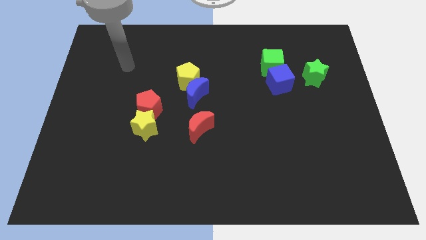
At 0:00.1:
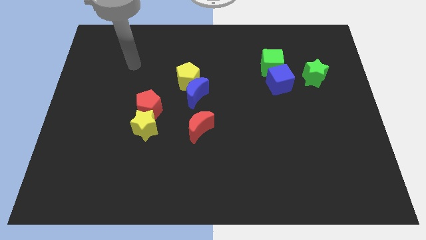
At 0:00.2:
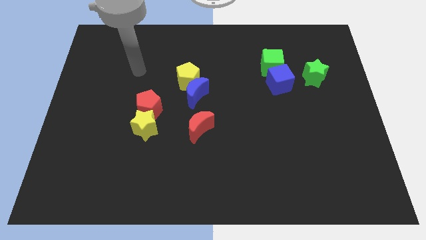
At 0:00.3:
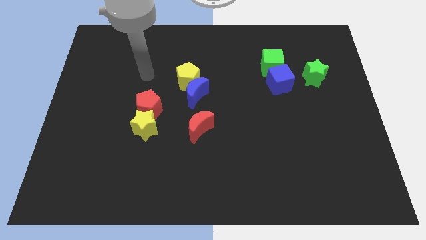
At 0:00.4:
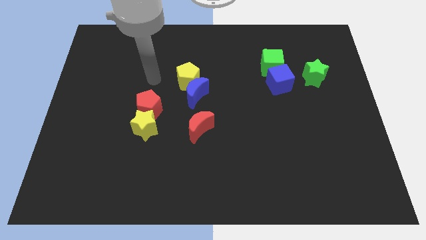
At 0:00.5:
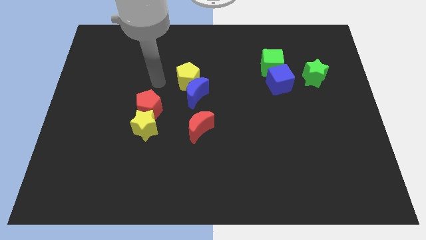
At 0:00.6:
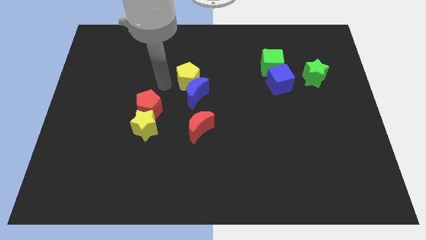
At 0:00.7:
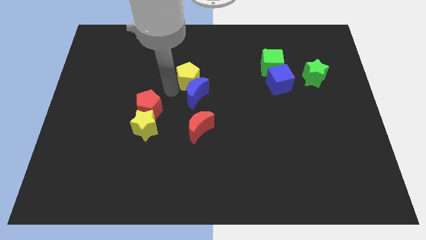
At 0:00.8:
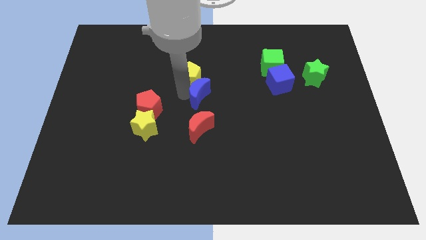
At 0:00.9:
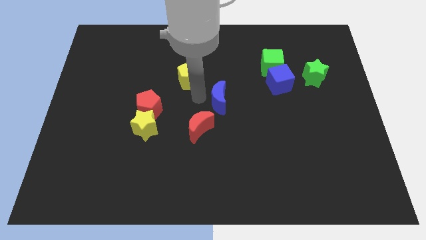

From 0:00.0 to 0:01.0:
move the yellow pentagon away from the blue moon

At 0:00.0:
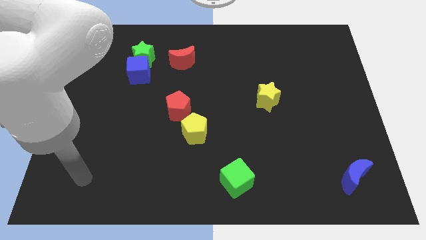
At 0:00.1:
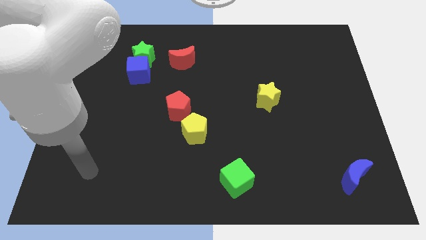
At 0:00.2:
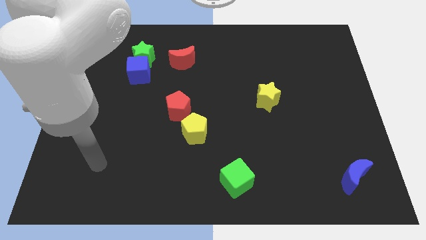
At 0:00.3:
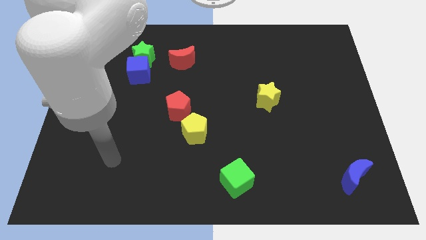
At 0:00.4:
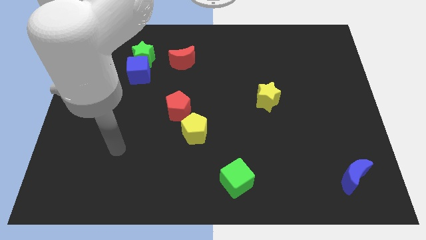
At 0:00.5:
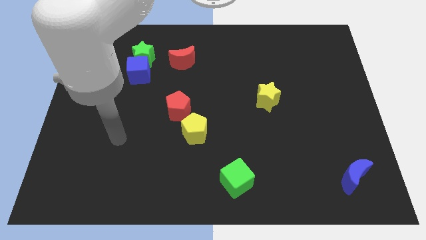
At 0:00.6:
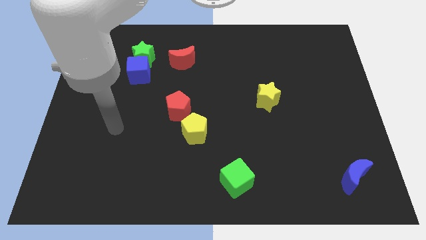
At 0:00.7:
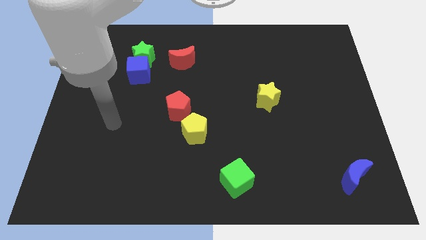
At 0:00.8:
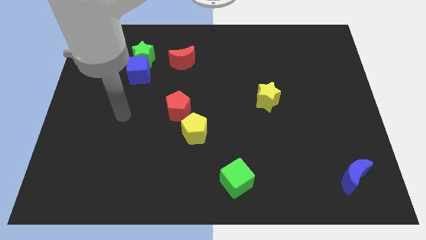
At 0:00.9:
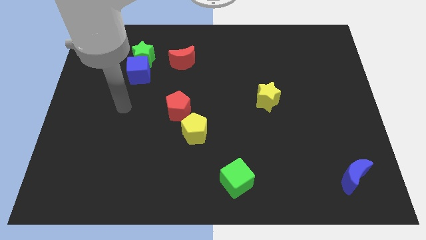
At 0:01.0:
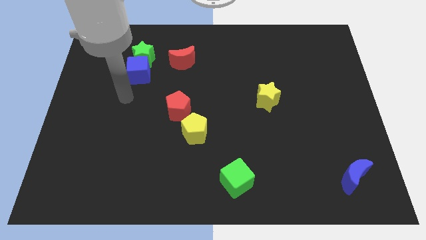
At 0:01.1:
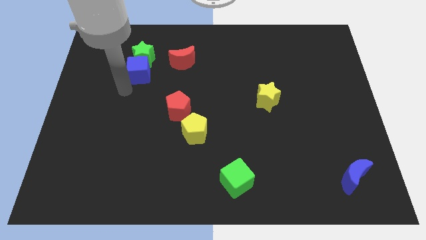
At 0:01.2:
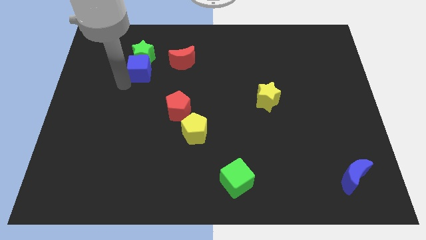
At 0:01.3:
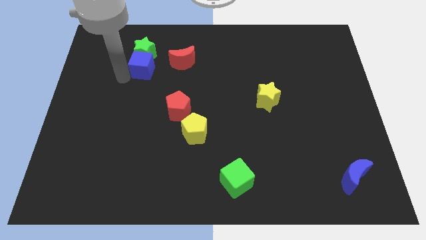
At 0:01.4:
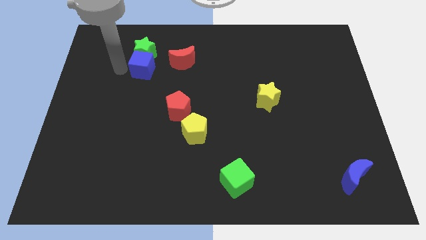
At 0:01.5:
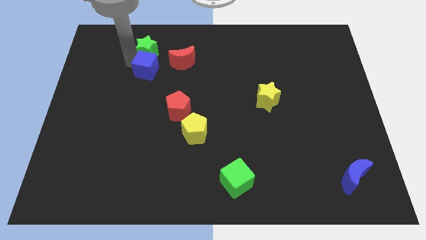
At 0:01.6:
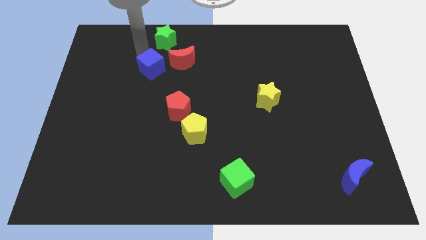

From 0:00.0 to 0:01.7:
move the blue cube away from the green star

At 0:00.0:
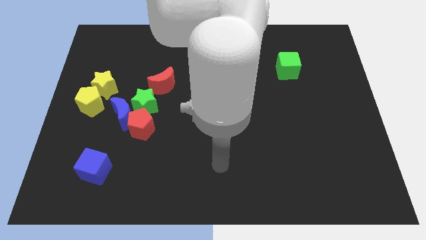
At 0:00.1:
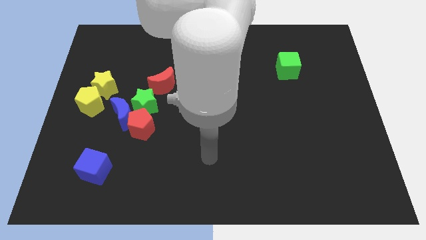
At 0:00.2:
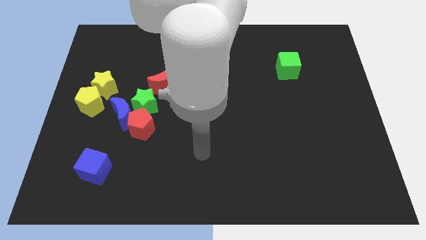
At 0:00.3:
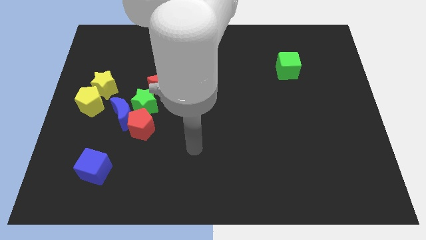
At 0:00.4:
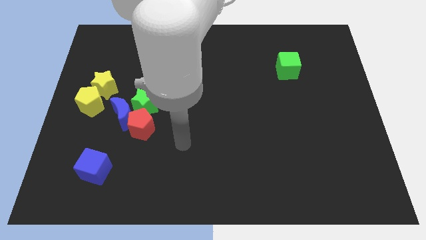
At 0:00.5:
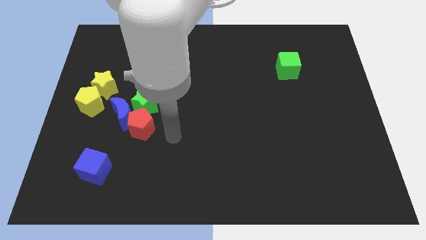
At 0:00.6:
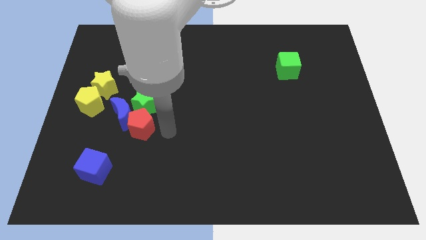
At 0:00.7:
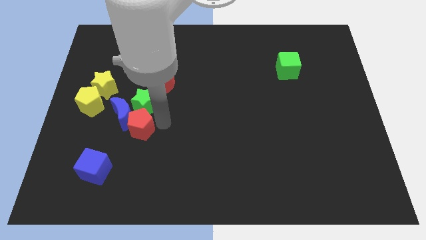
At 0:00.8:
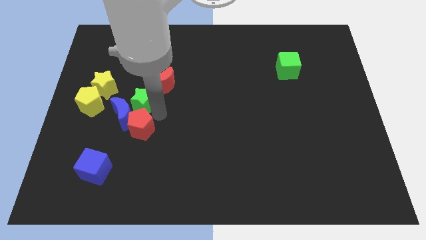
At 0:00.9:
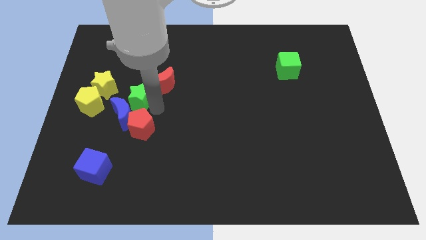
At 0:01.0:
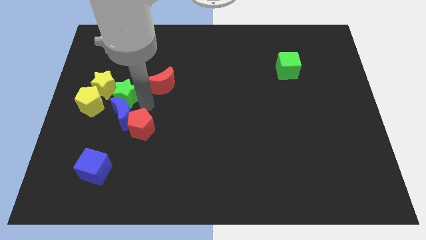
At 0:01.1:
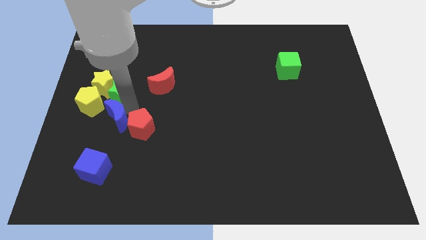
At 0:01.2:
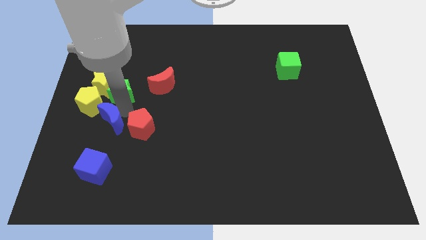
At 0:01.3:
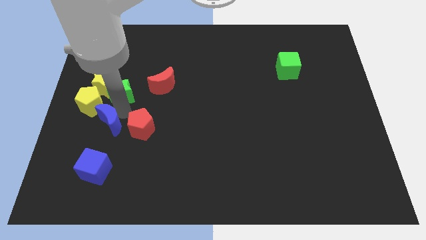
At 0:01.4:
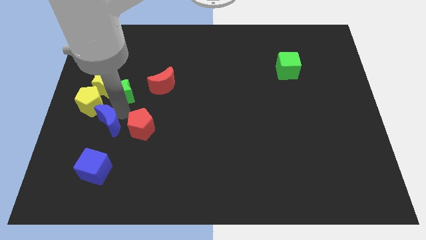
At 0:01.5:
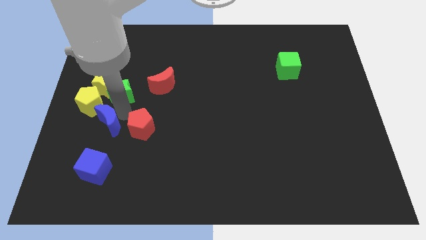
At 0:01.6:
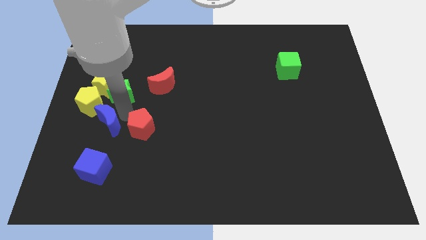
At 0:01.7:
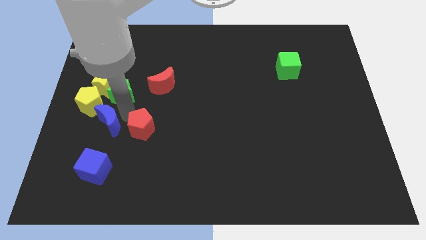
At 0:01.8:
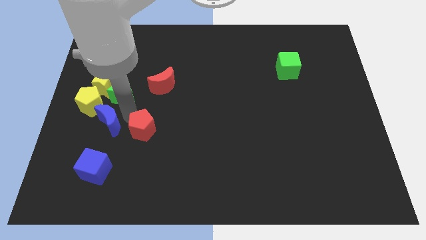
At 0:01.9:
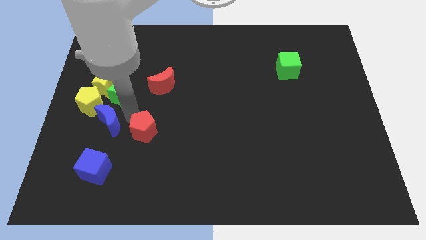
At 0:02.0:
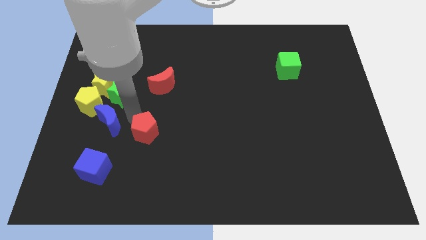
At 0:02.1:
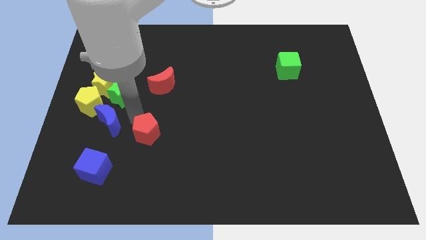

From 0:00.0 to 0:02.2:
separate the red pentagon from the blue moon and green star

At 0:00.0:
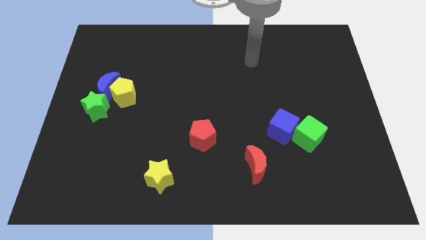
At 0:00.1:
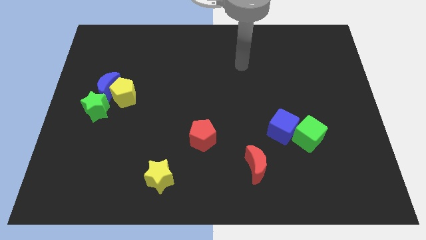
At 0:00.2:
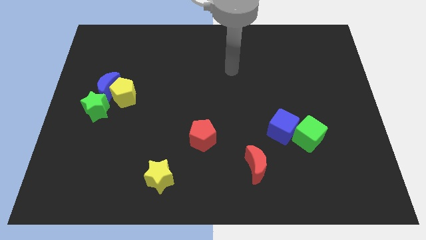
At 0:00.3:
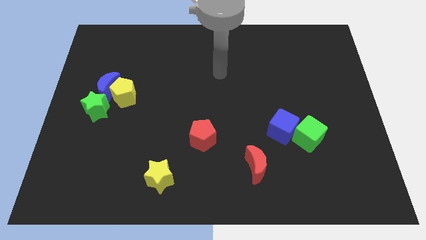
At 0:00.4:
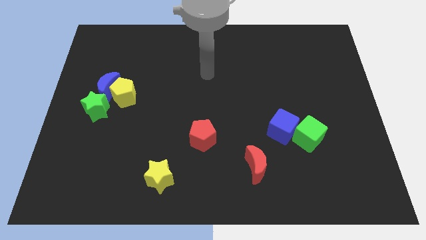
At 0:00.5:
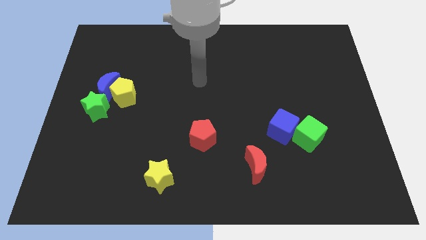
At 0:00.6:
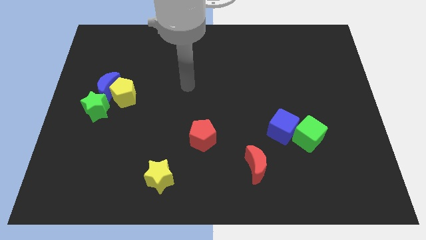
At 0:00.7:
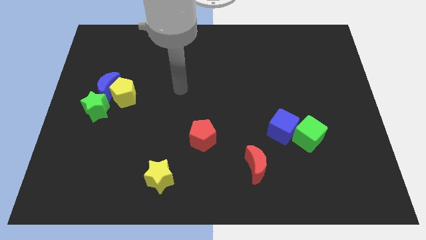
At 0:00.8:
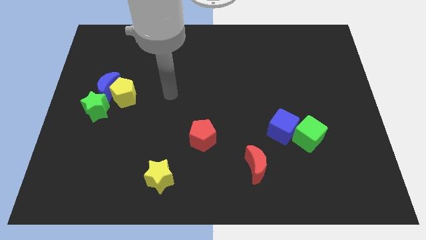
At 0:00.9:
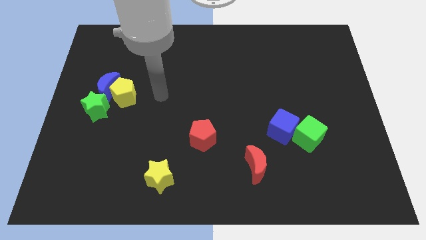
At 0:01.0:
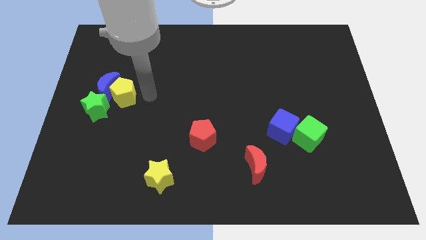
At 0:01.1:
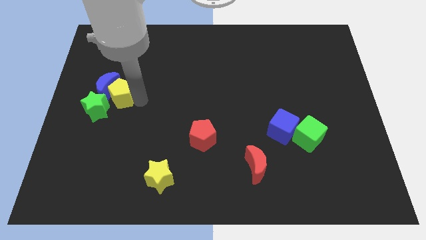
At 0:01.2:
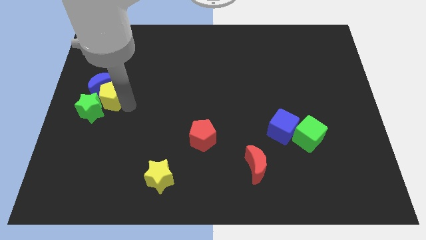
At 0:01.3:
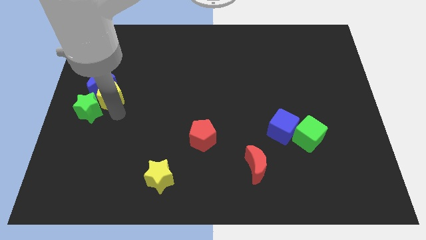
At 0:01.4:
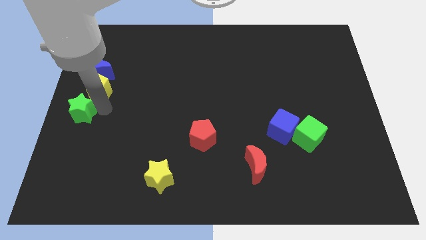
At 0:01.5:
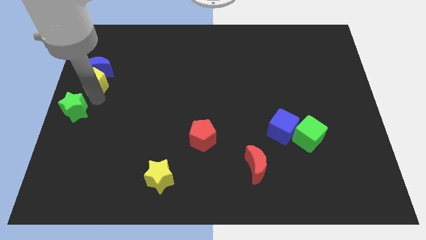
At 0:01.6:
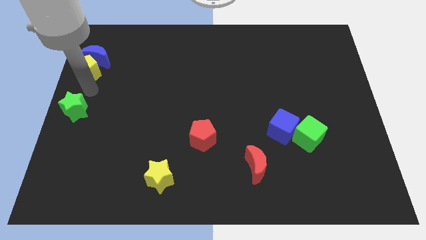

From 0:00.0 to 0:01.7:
separate the blue moon from the yellow pentagon and green star

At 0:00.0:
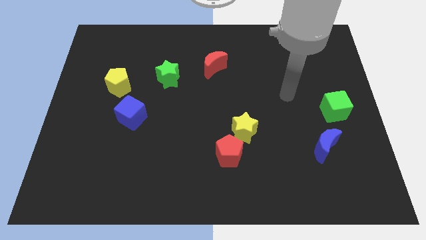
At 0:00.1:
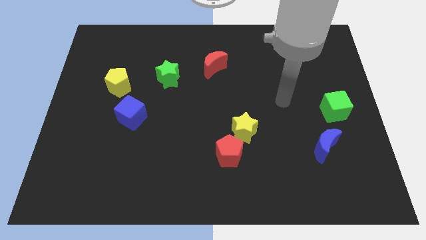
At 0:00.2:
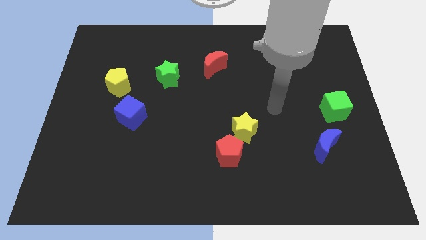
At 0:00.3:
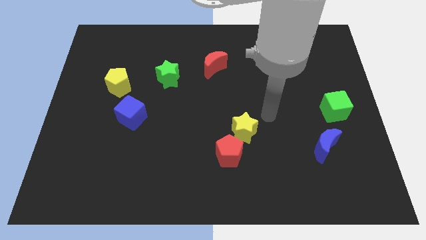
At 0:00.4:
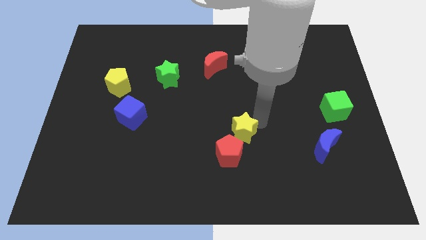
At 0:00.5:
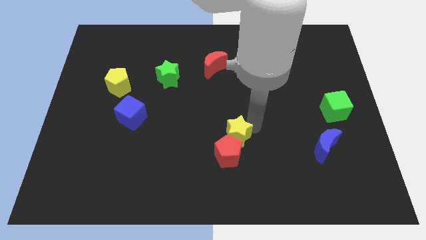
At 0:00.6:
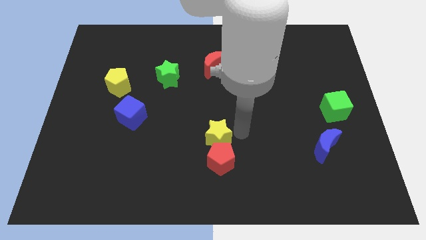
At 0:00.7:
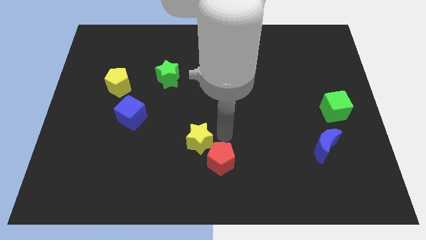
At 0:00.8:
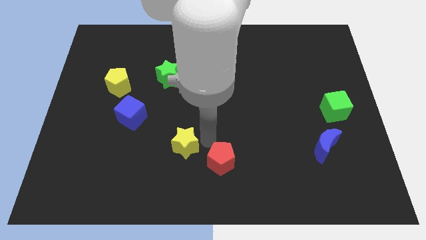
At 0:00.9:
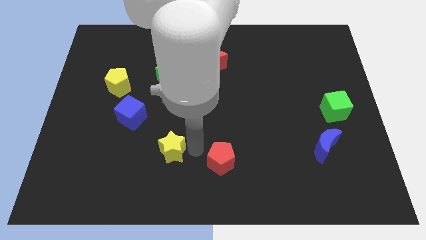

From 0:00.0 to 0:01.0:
separate the red pentagon from the yellow star

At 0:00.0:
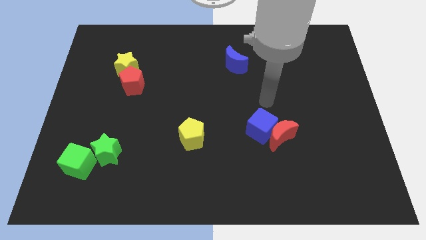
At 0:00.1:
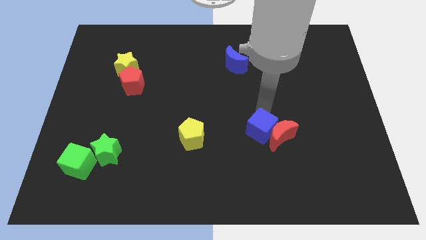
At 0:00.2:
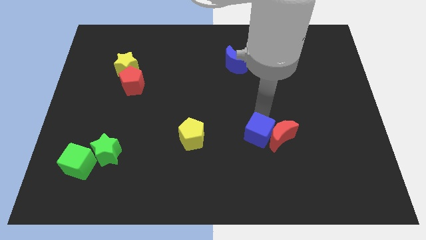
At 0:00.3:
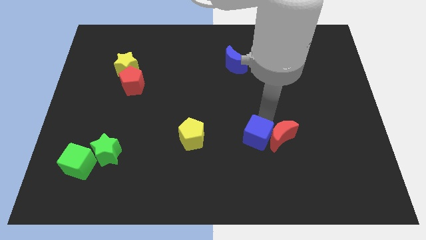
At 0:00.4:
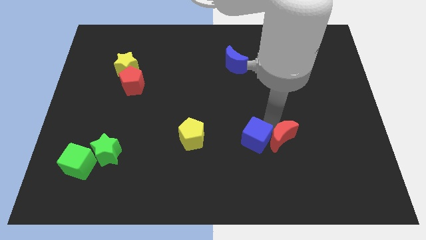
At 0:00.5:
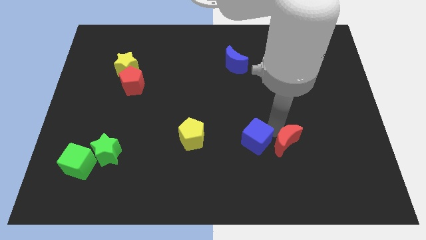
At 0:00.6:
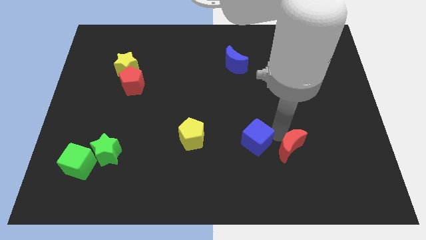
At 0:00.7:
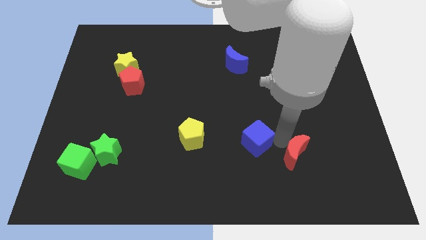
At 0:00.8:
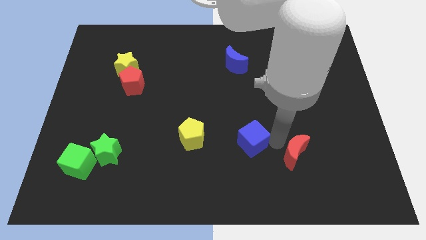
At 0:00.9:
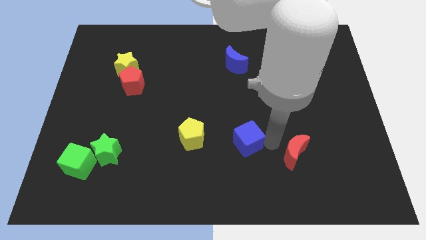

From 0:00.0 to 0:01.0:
move the red moon away from the blue cube

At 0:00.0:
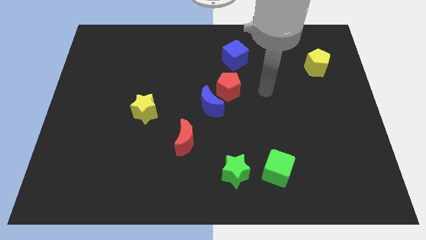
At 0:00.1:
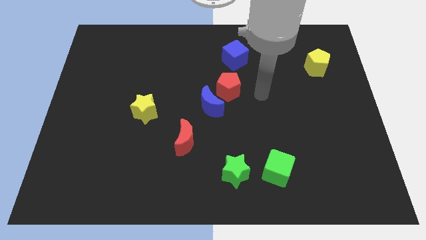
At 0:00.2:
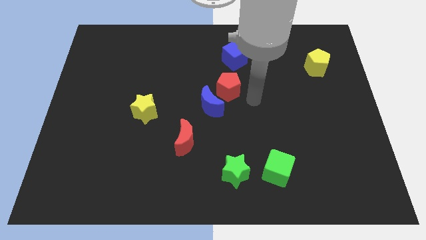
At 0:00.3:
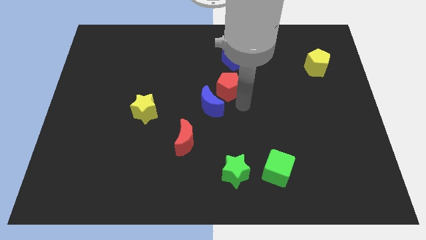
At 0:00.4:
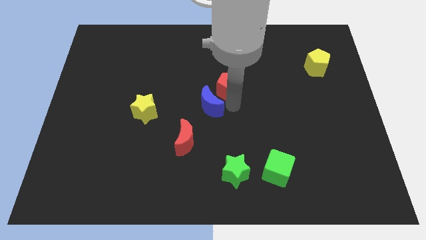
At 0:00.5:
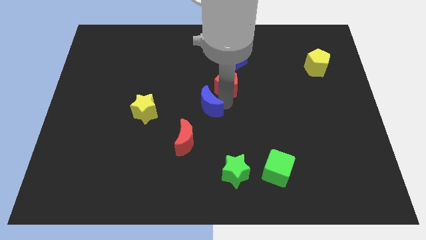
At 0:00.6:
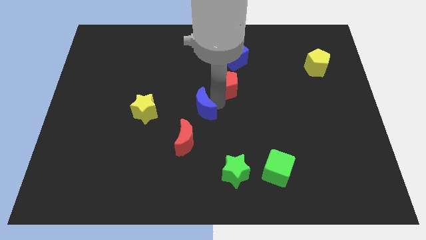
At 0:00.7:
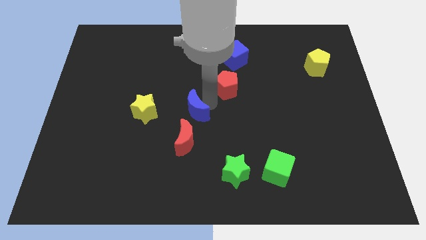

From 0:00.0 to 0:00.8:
pull the red pentagon apart from the blue moon
